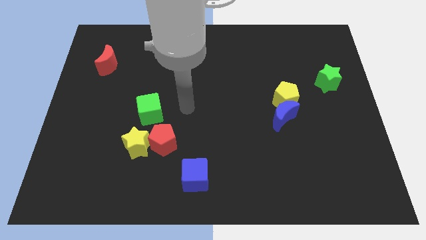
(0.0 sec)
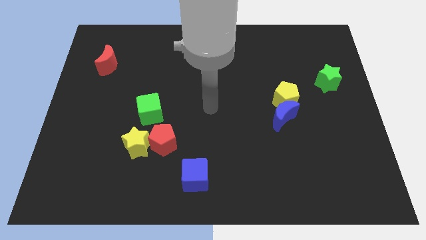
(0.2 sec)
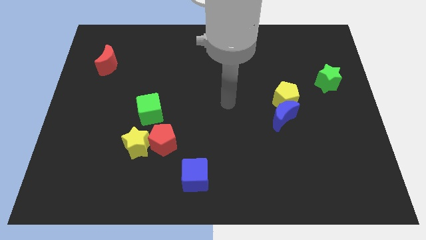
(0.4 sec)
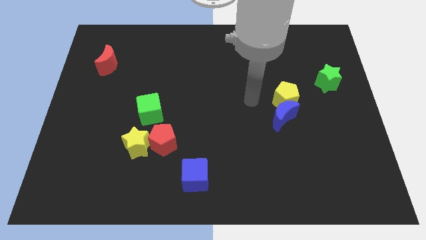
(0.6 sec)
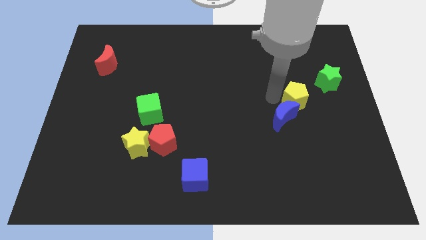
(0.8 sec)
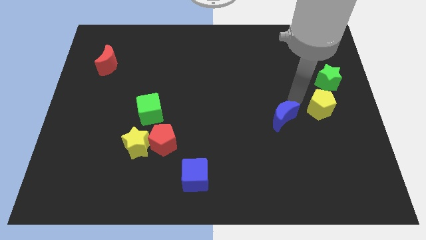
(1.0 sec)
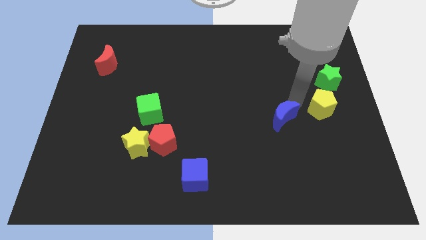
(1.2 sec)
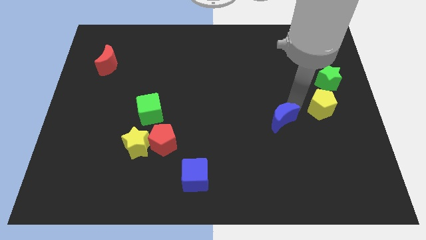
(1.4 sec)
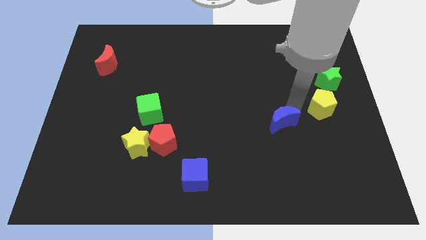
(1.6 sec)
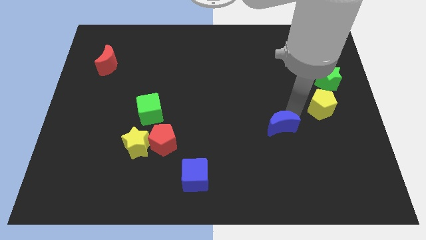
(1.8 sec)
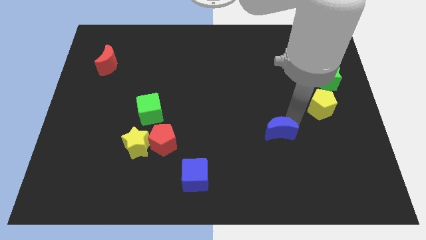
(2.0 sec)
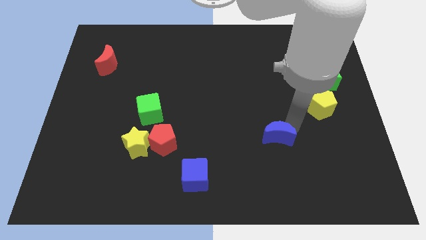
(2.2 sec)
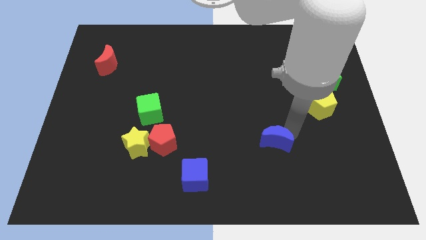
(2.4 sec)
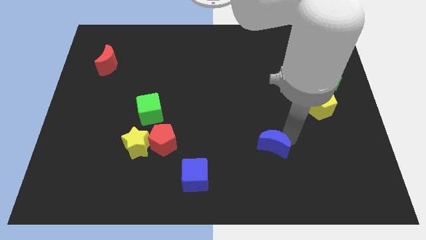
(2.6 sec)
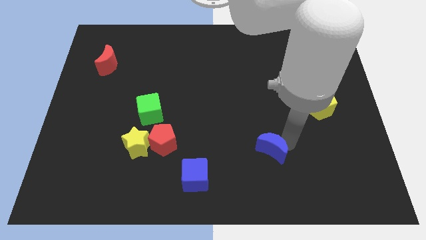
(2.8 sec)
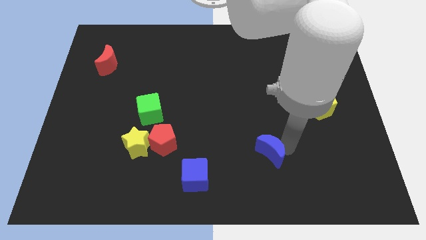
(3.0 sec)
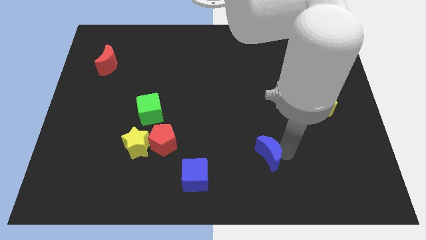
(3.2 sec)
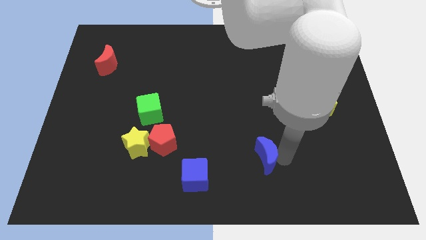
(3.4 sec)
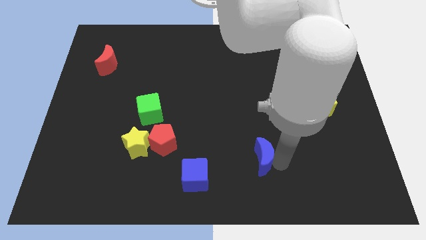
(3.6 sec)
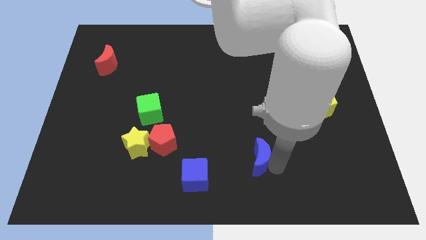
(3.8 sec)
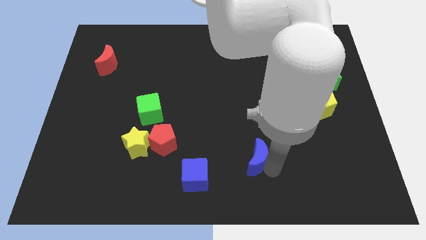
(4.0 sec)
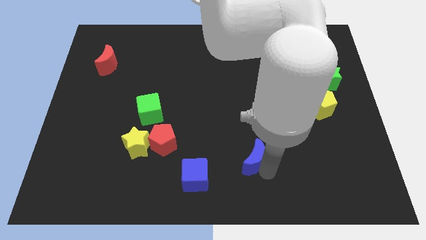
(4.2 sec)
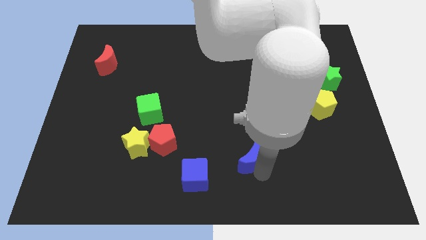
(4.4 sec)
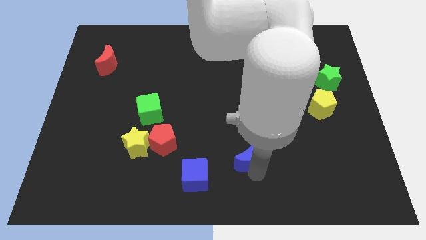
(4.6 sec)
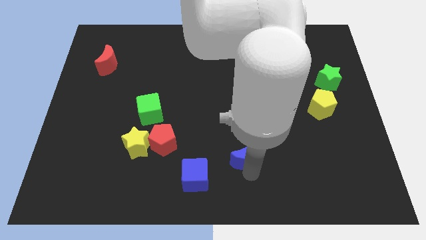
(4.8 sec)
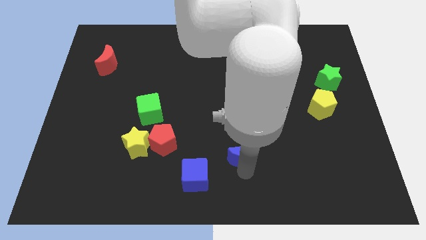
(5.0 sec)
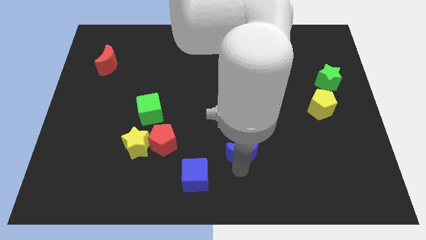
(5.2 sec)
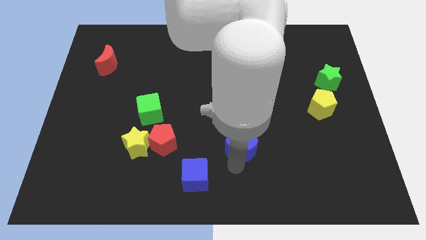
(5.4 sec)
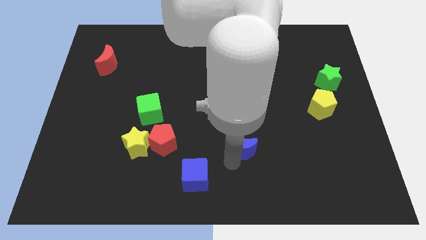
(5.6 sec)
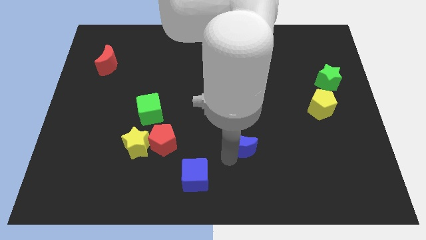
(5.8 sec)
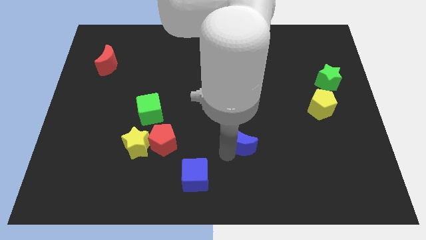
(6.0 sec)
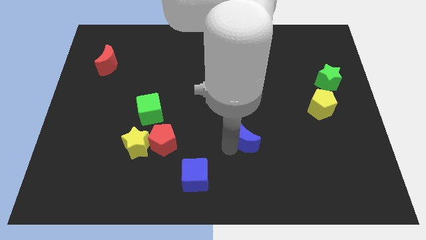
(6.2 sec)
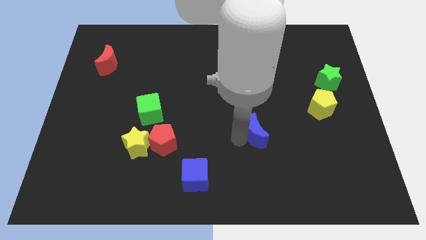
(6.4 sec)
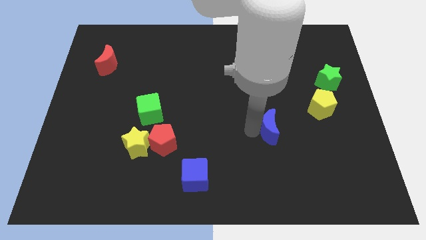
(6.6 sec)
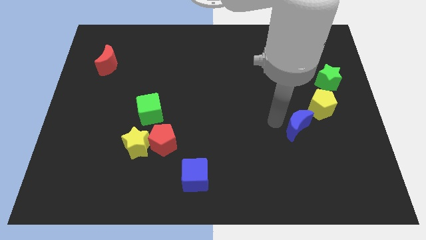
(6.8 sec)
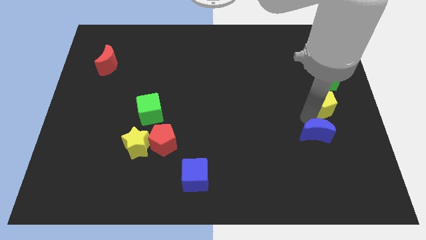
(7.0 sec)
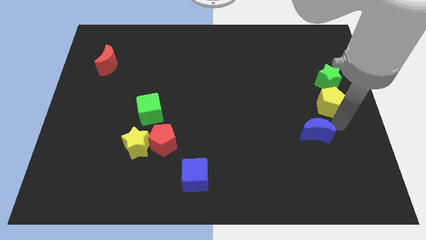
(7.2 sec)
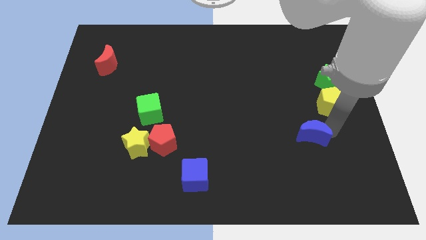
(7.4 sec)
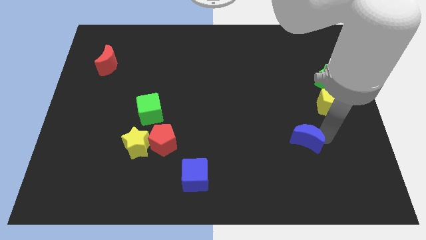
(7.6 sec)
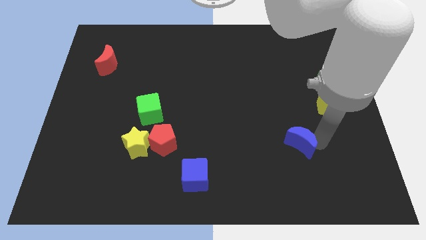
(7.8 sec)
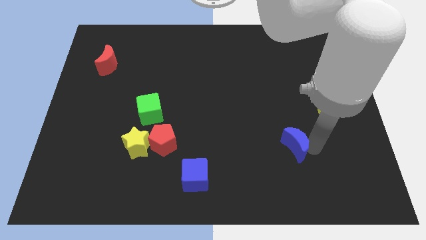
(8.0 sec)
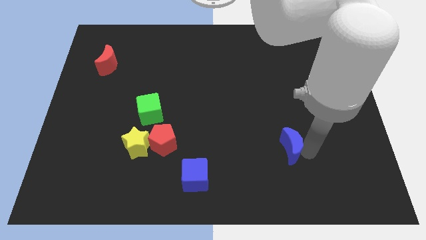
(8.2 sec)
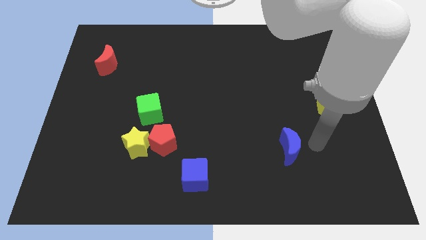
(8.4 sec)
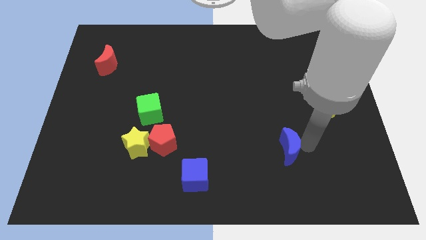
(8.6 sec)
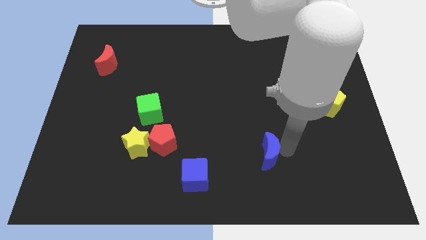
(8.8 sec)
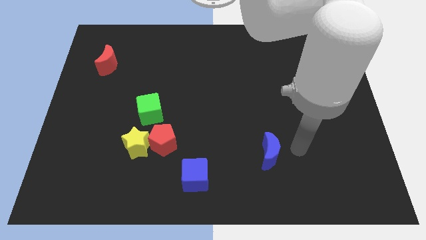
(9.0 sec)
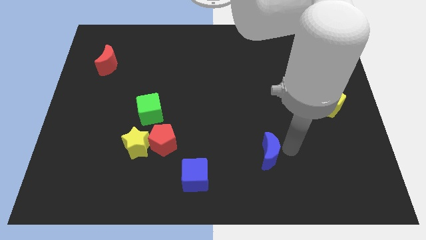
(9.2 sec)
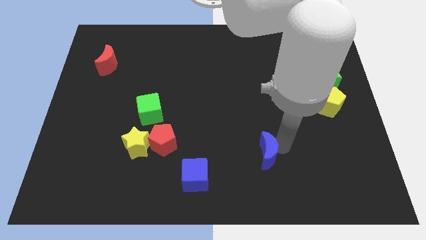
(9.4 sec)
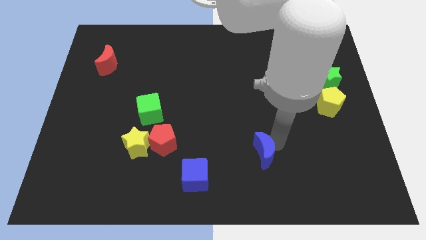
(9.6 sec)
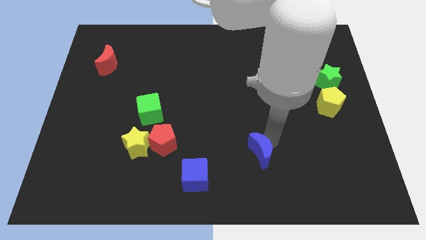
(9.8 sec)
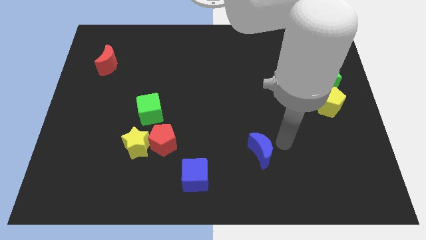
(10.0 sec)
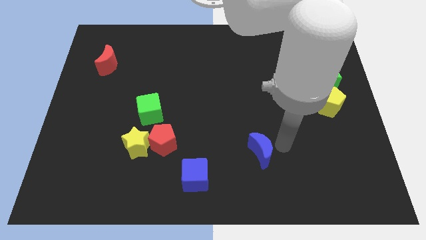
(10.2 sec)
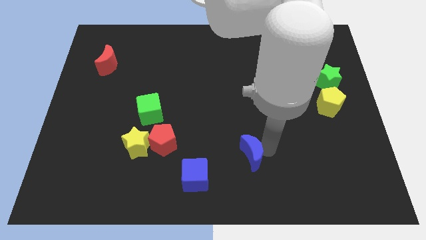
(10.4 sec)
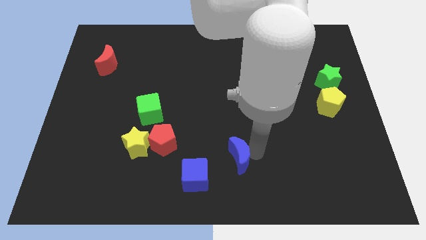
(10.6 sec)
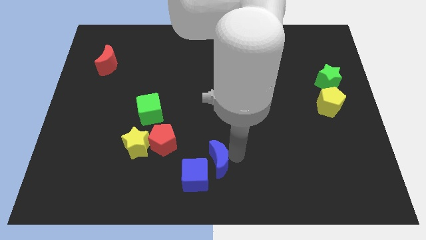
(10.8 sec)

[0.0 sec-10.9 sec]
push the blue moon close to the blue cube

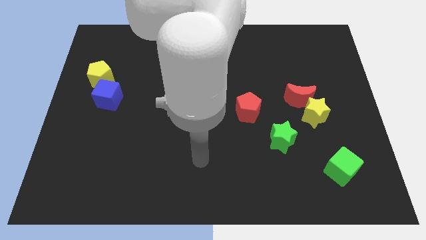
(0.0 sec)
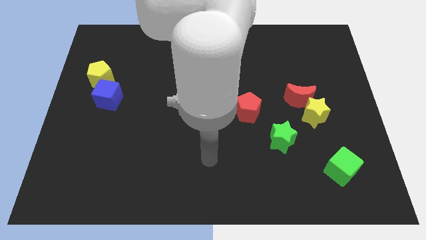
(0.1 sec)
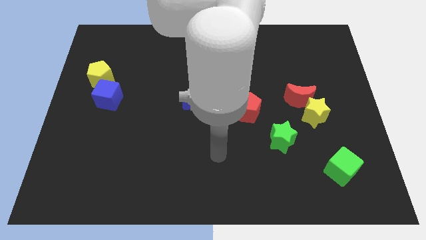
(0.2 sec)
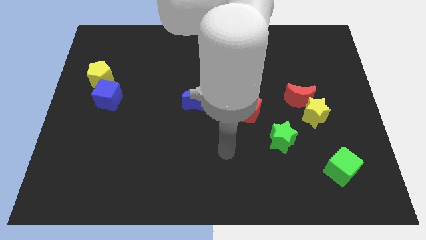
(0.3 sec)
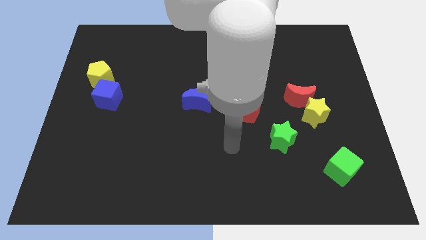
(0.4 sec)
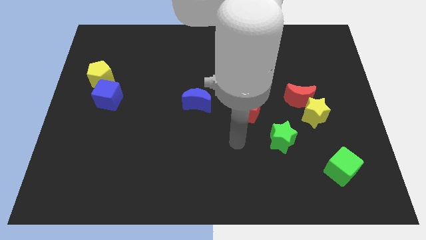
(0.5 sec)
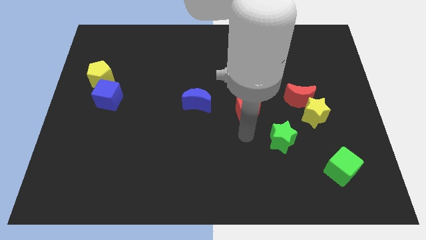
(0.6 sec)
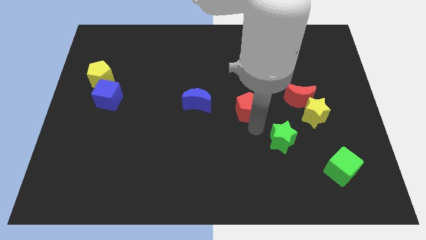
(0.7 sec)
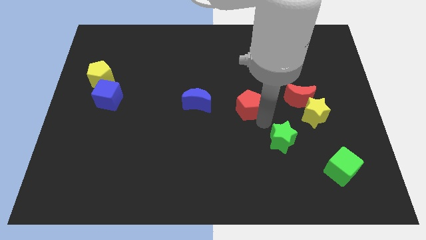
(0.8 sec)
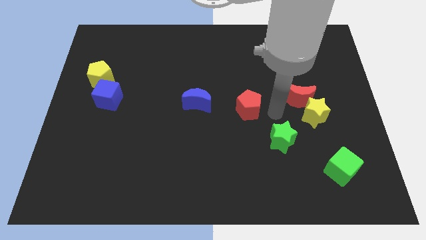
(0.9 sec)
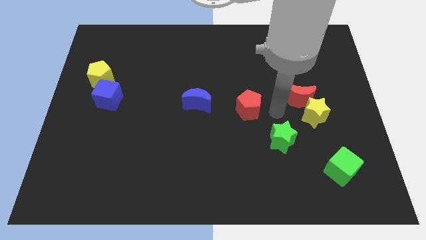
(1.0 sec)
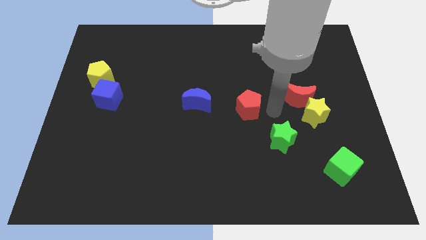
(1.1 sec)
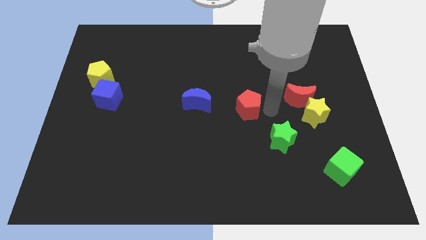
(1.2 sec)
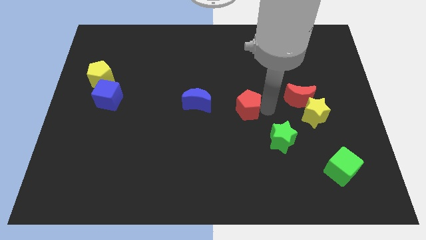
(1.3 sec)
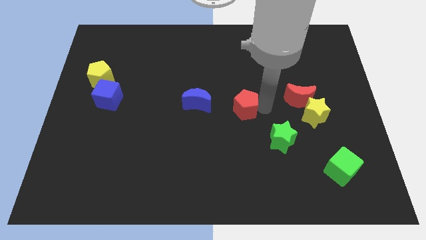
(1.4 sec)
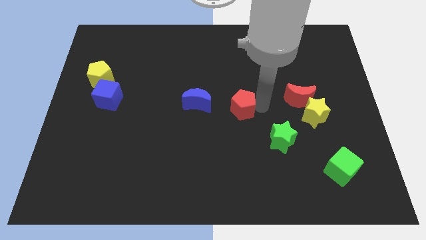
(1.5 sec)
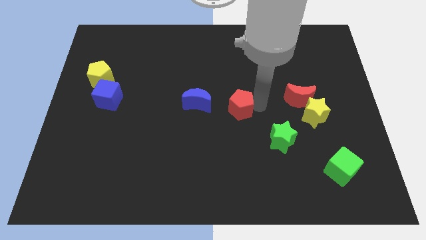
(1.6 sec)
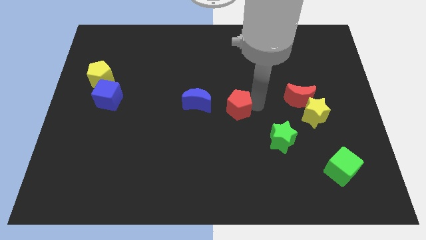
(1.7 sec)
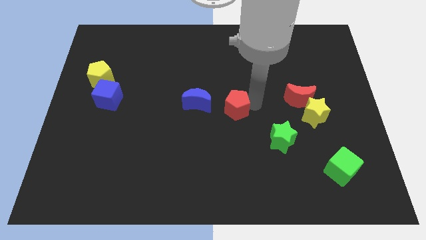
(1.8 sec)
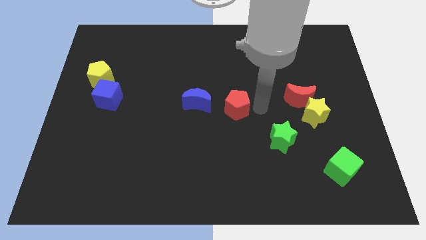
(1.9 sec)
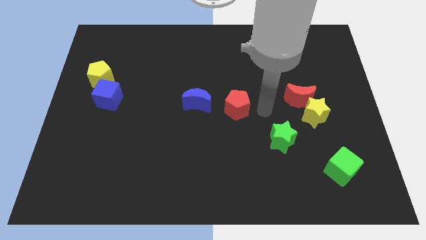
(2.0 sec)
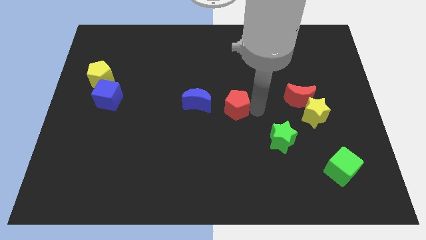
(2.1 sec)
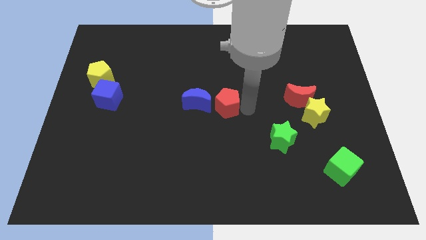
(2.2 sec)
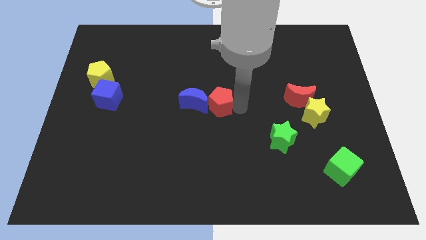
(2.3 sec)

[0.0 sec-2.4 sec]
push the red pentagon close to the blue moon
